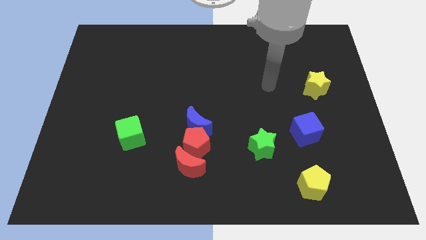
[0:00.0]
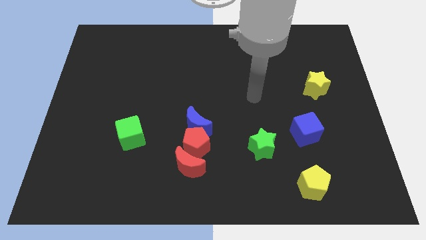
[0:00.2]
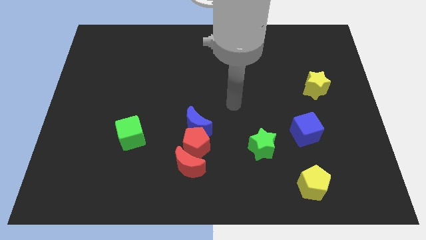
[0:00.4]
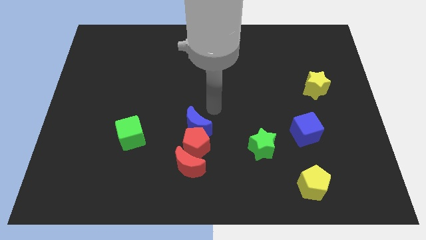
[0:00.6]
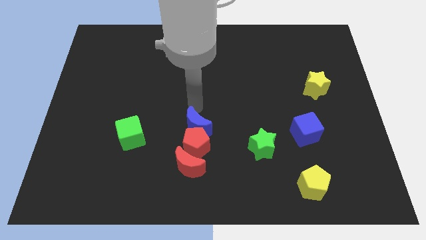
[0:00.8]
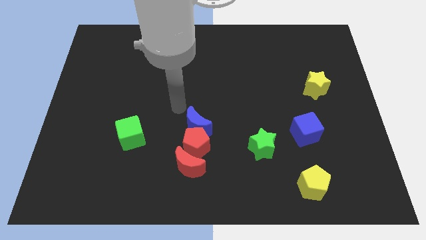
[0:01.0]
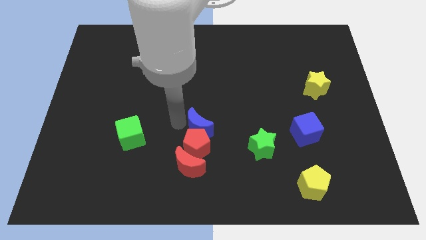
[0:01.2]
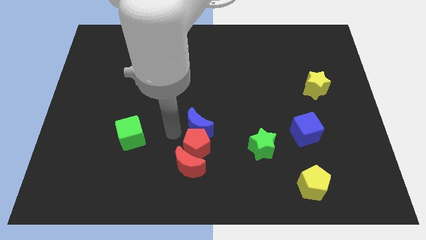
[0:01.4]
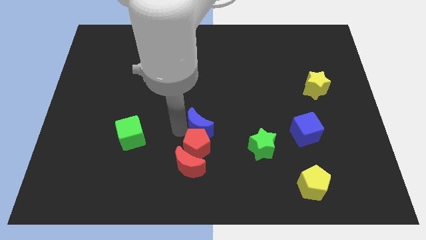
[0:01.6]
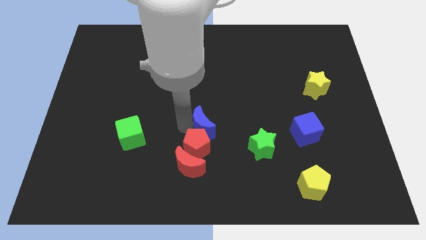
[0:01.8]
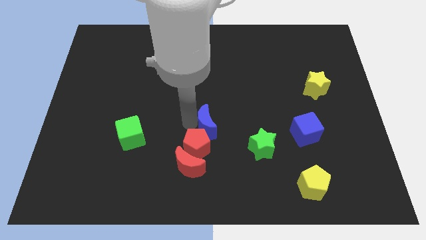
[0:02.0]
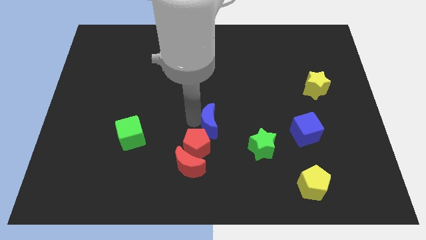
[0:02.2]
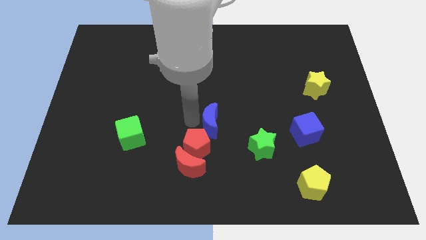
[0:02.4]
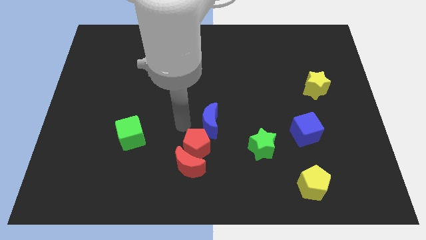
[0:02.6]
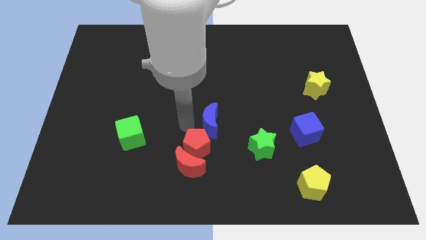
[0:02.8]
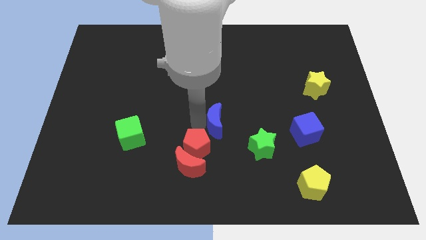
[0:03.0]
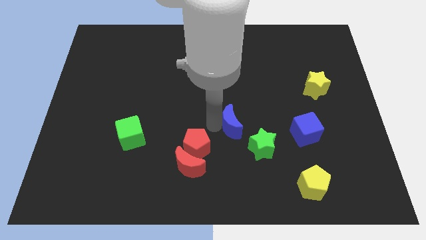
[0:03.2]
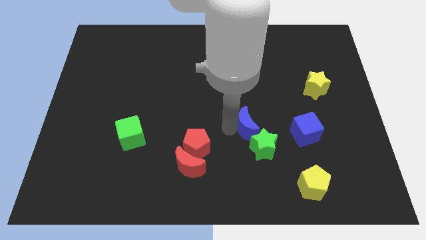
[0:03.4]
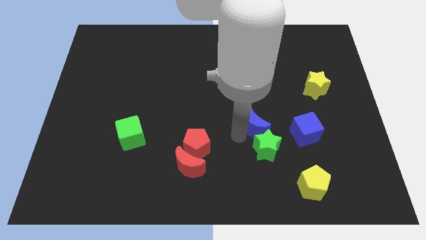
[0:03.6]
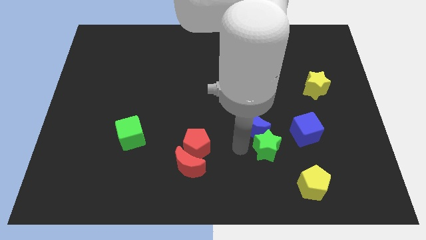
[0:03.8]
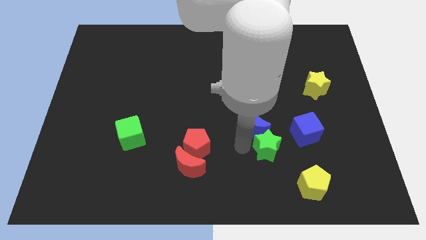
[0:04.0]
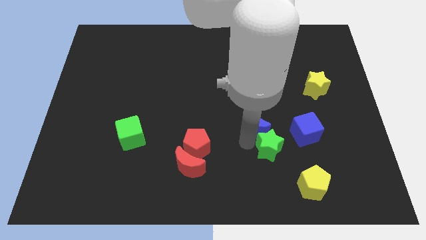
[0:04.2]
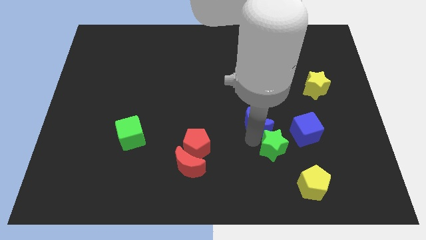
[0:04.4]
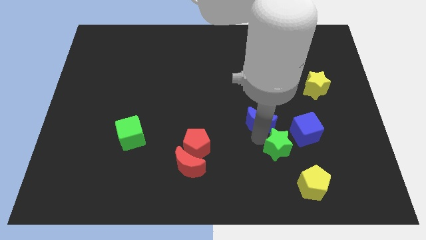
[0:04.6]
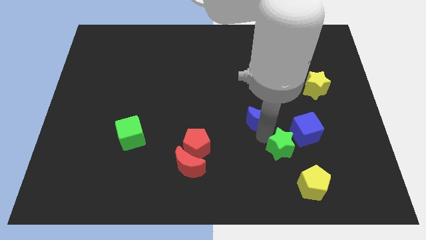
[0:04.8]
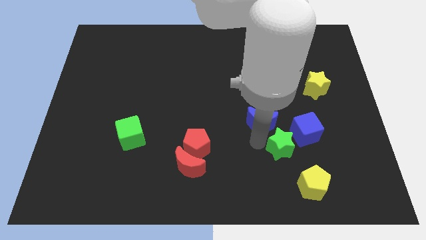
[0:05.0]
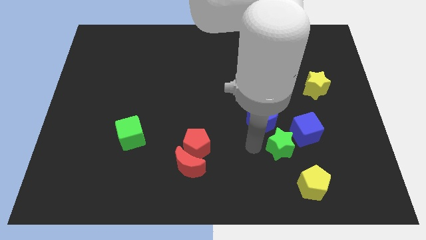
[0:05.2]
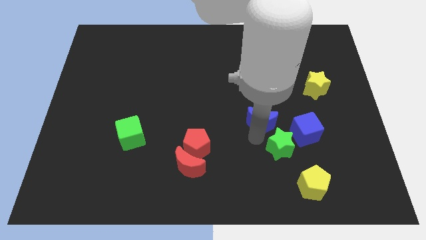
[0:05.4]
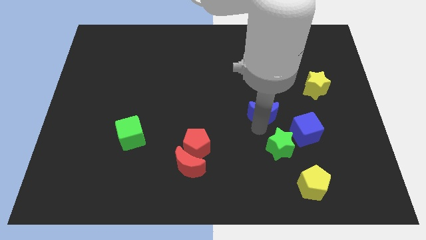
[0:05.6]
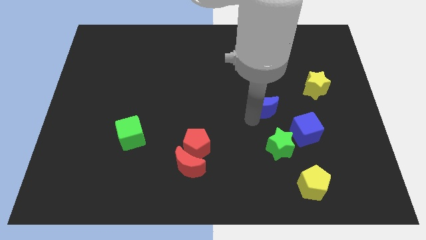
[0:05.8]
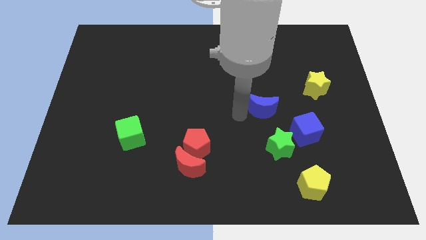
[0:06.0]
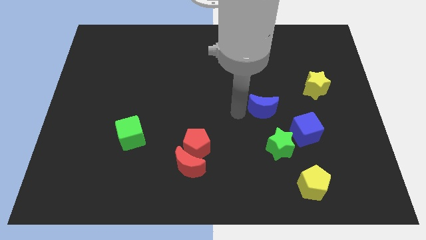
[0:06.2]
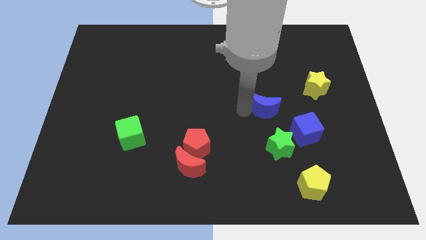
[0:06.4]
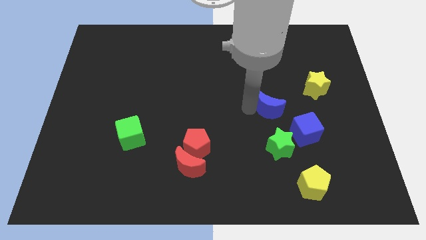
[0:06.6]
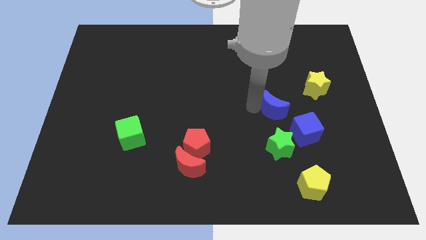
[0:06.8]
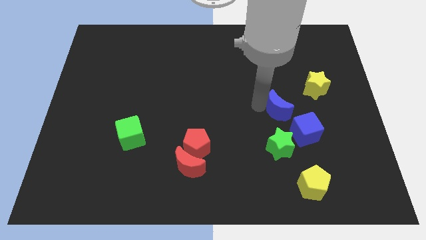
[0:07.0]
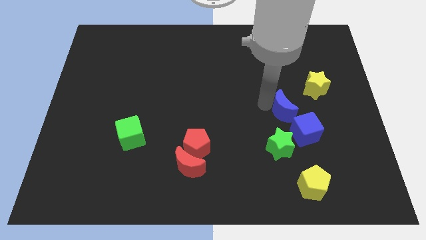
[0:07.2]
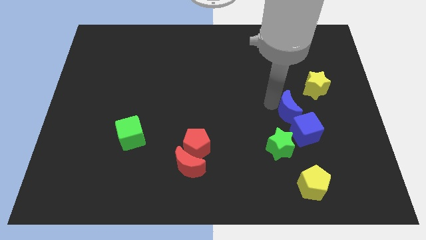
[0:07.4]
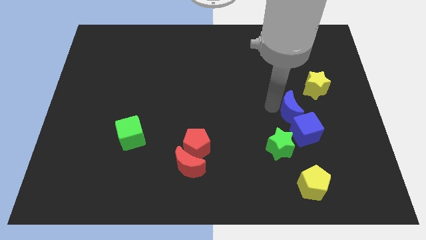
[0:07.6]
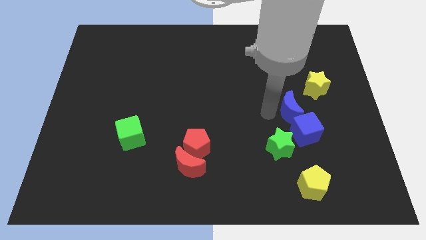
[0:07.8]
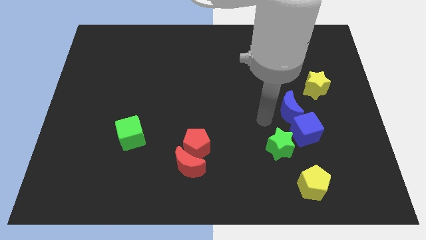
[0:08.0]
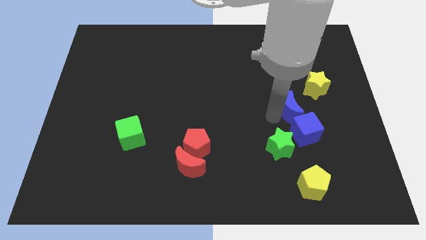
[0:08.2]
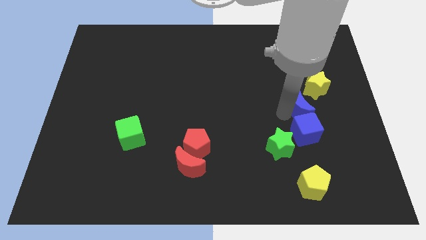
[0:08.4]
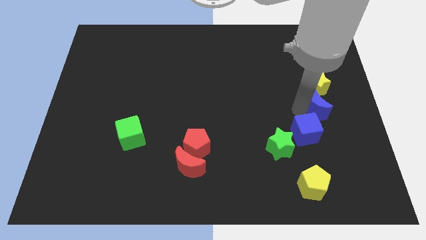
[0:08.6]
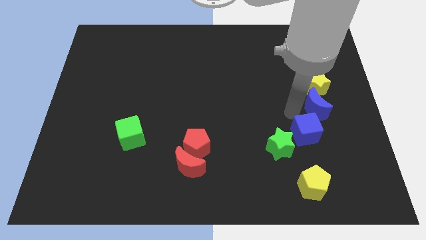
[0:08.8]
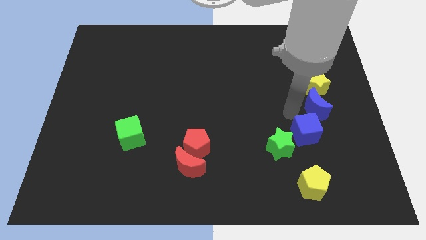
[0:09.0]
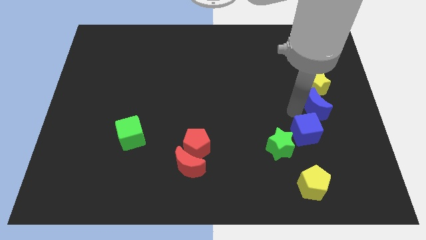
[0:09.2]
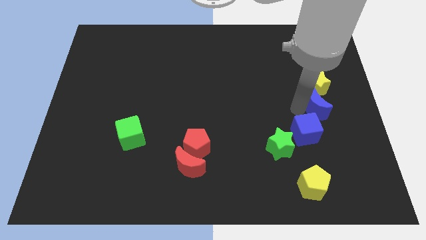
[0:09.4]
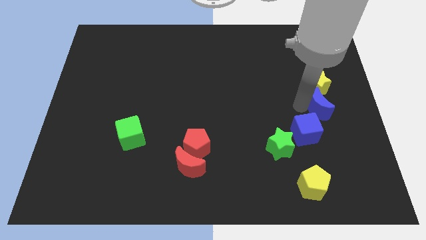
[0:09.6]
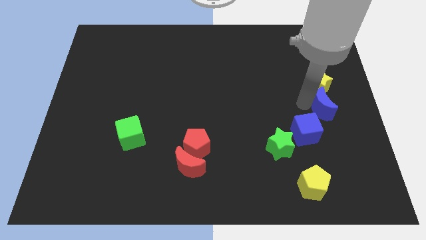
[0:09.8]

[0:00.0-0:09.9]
slide the blue moon to the center right

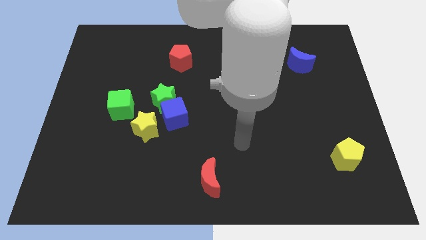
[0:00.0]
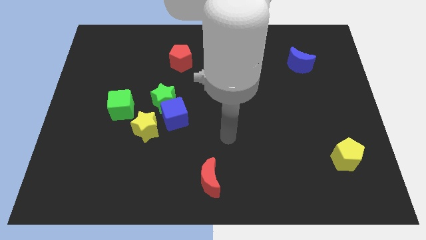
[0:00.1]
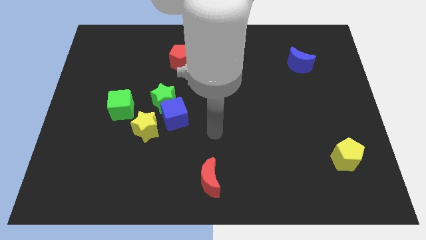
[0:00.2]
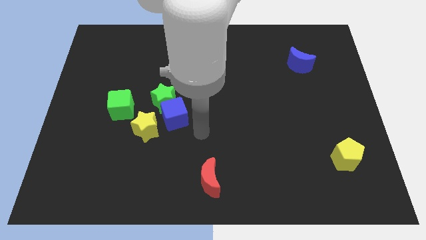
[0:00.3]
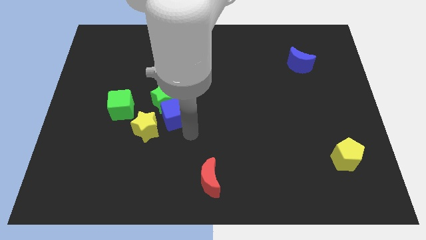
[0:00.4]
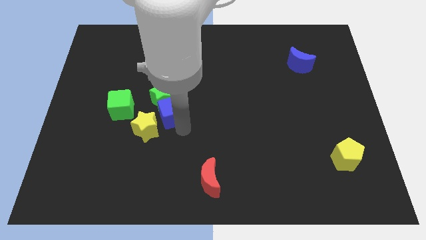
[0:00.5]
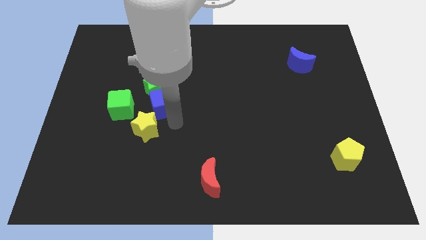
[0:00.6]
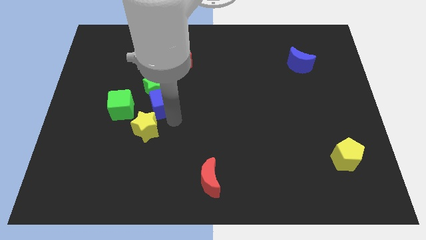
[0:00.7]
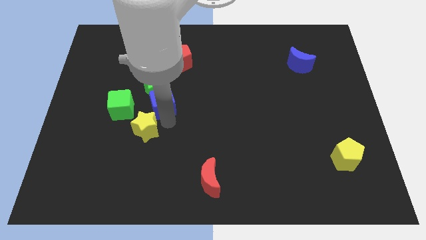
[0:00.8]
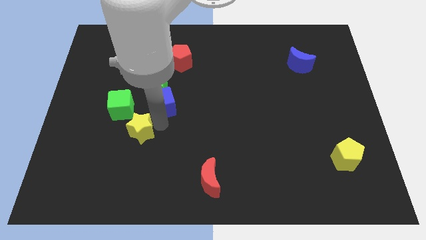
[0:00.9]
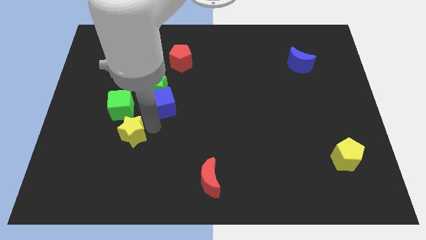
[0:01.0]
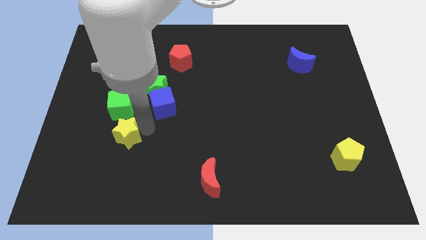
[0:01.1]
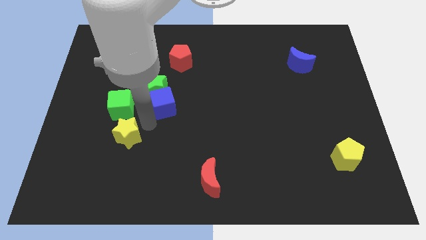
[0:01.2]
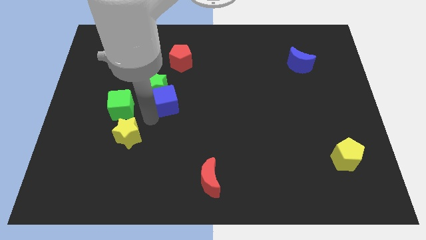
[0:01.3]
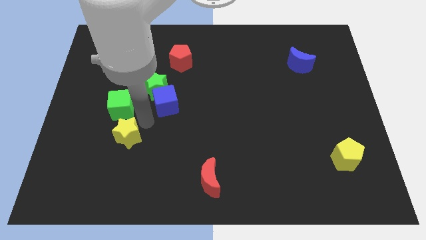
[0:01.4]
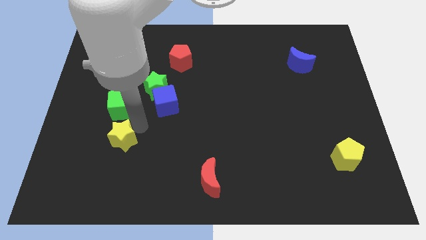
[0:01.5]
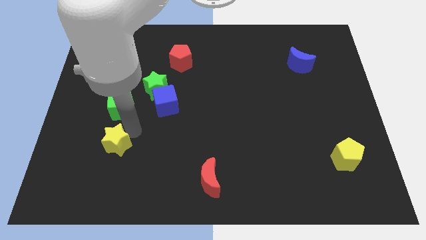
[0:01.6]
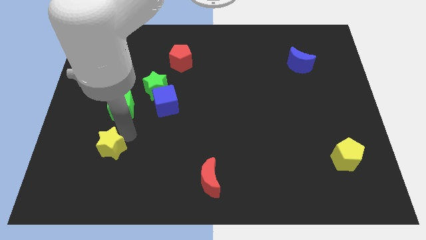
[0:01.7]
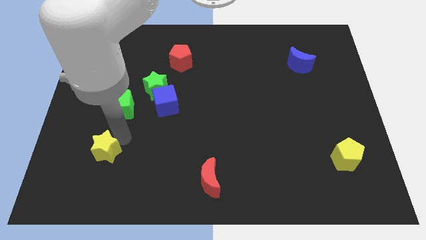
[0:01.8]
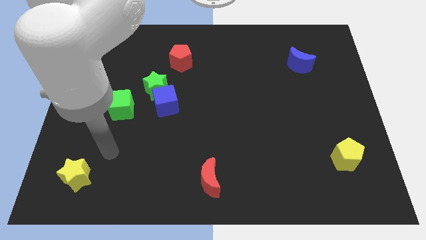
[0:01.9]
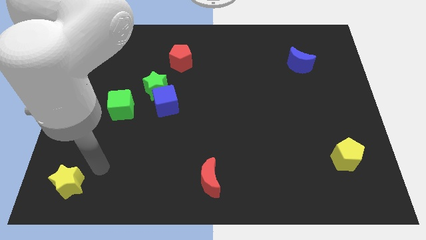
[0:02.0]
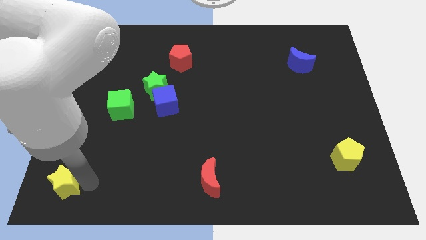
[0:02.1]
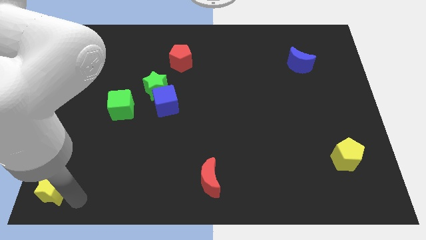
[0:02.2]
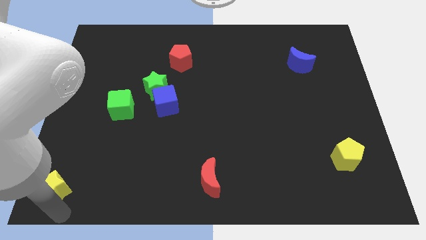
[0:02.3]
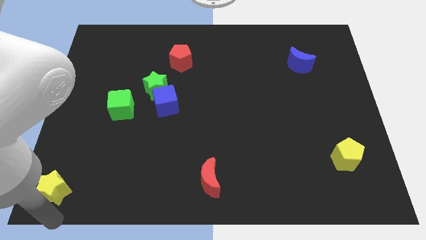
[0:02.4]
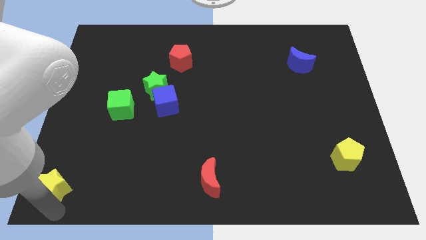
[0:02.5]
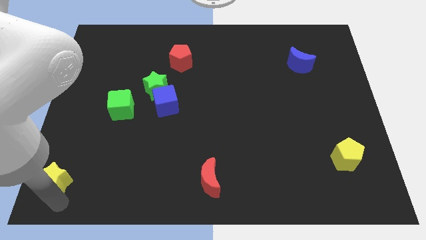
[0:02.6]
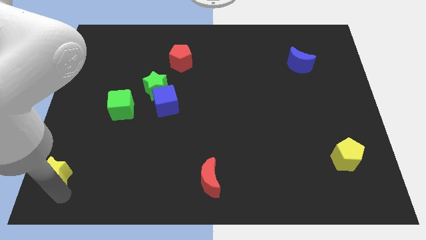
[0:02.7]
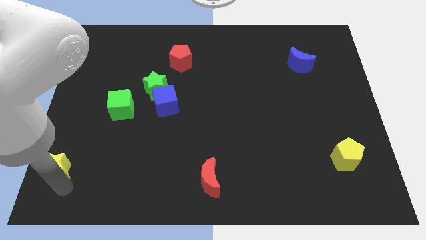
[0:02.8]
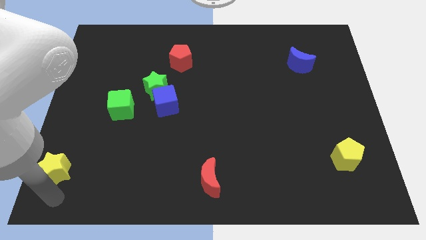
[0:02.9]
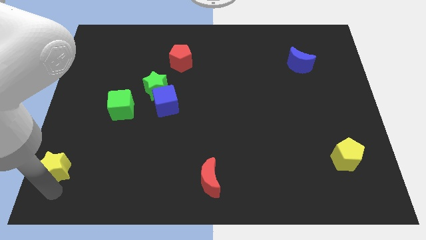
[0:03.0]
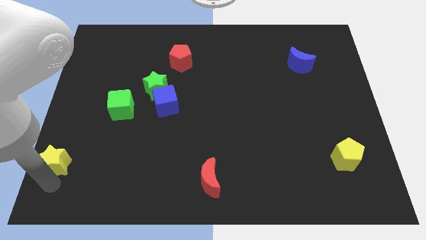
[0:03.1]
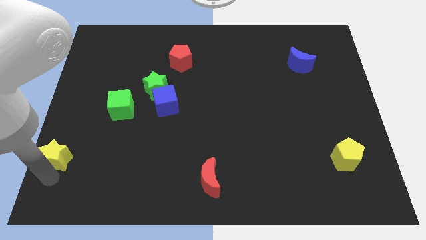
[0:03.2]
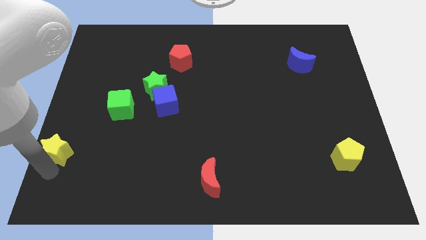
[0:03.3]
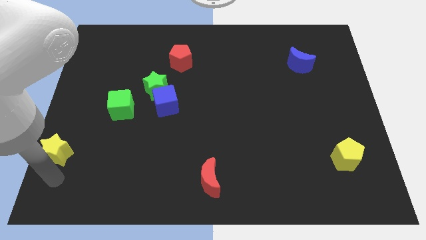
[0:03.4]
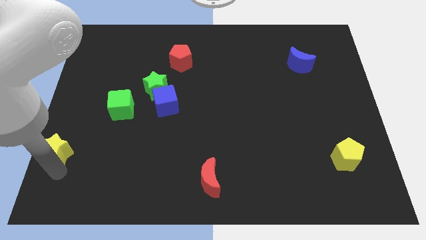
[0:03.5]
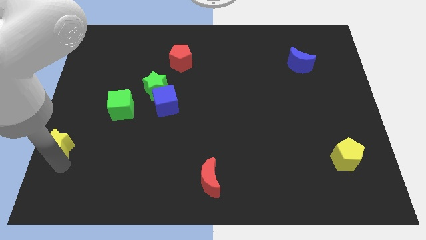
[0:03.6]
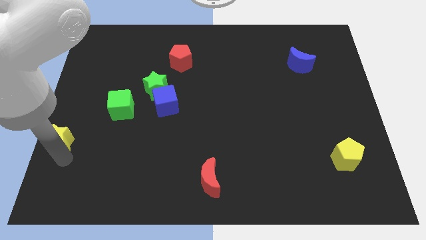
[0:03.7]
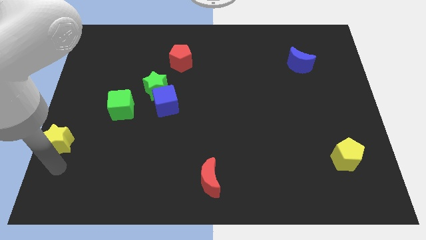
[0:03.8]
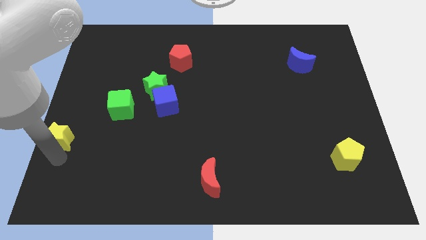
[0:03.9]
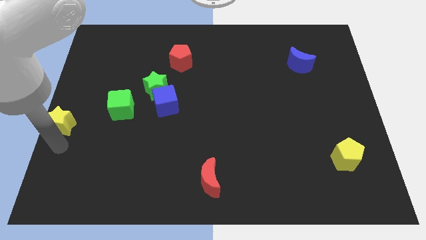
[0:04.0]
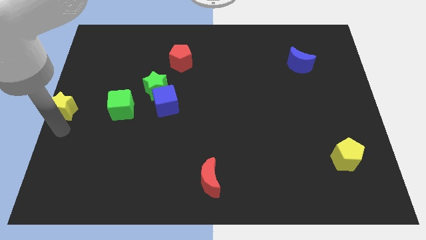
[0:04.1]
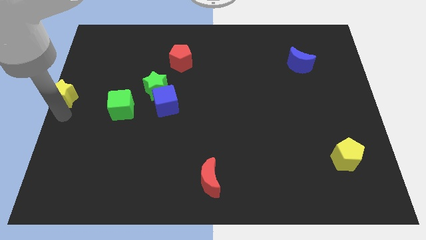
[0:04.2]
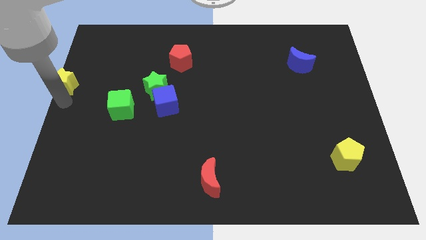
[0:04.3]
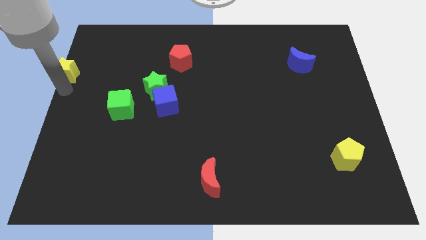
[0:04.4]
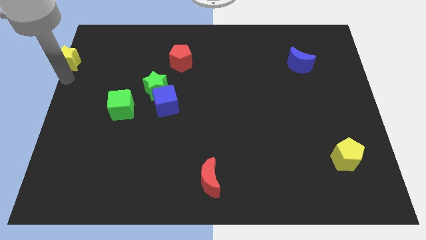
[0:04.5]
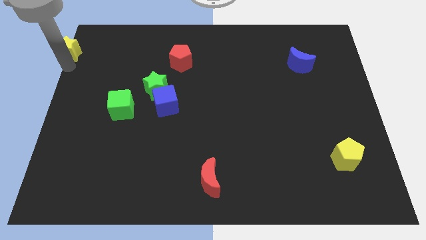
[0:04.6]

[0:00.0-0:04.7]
move the yellow star to the upper left corner
